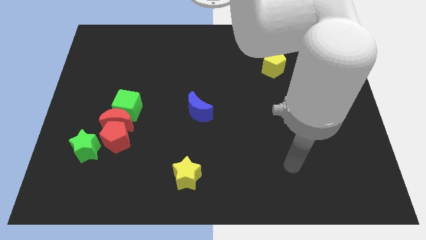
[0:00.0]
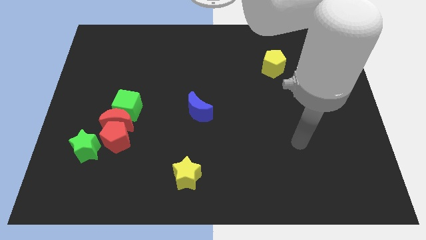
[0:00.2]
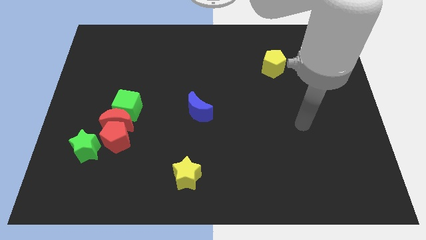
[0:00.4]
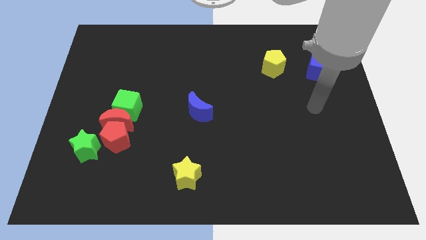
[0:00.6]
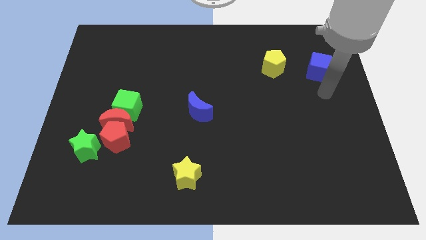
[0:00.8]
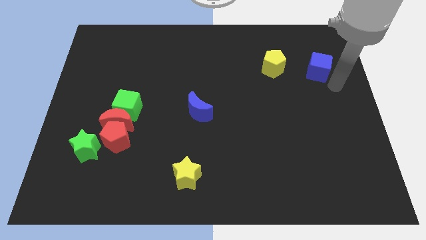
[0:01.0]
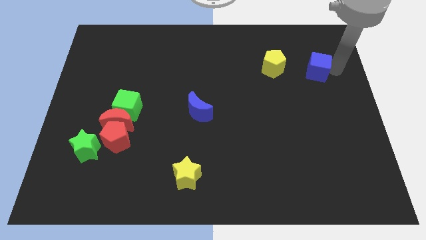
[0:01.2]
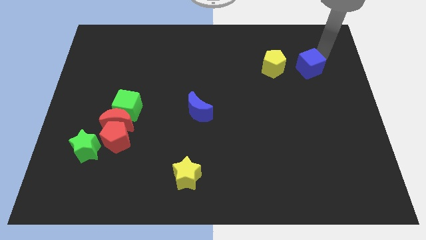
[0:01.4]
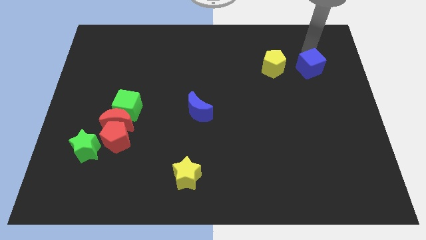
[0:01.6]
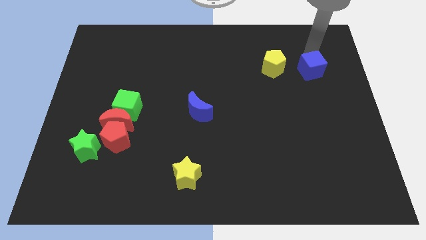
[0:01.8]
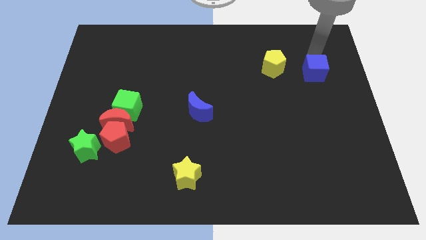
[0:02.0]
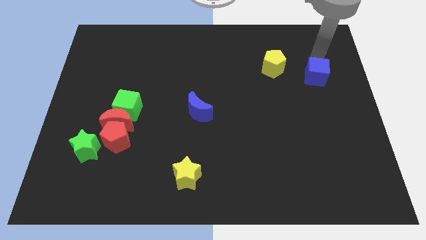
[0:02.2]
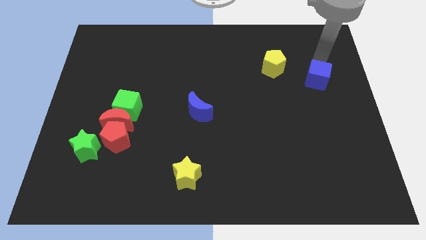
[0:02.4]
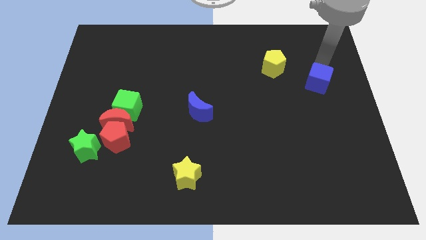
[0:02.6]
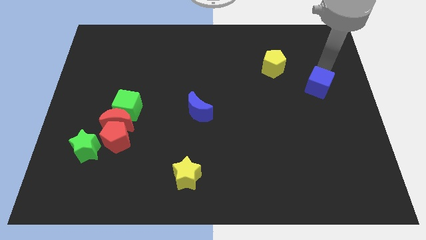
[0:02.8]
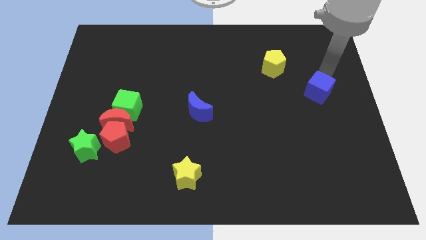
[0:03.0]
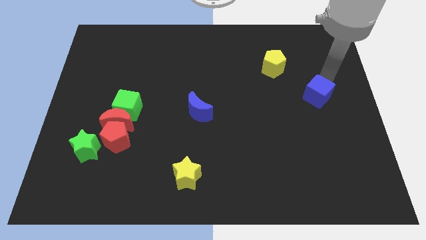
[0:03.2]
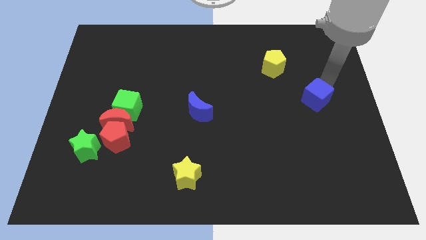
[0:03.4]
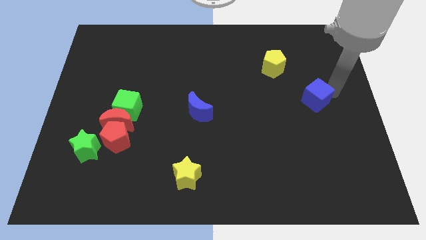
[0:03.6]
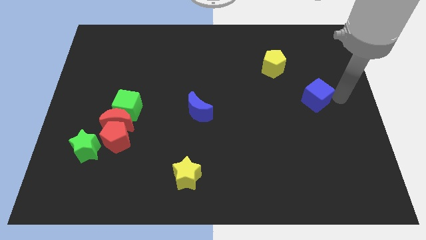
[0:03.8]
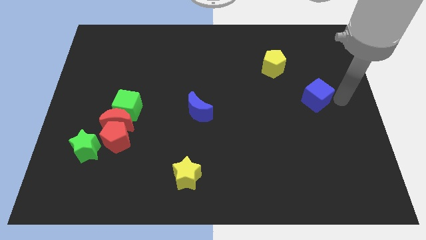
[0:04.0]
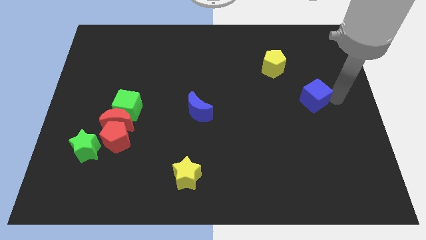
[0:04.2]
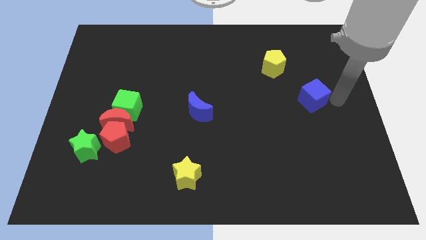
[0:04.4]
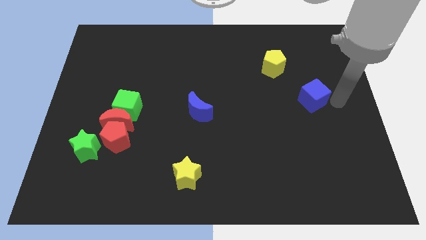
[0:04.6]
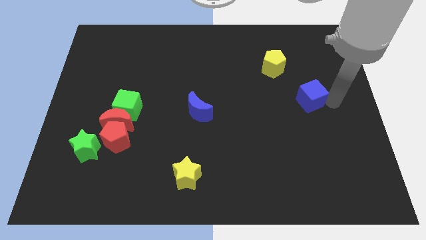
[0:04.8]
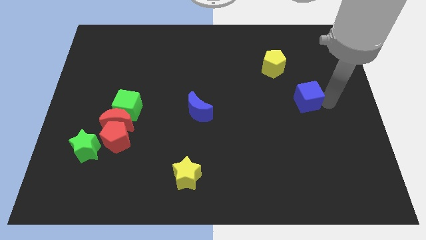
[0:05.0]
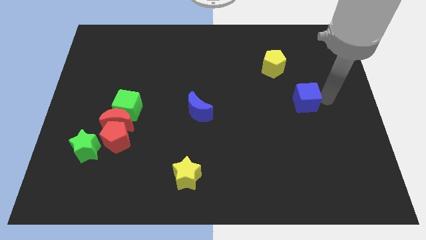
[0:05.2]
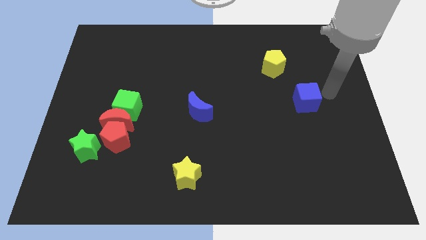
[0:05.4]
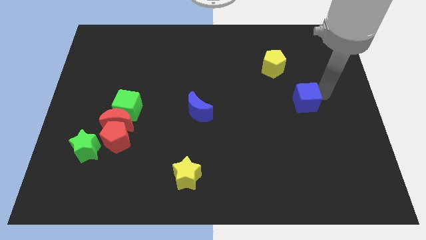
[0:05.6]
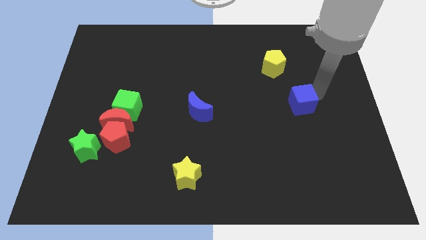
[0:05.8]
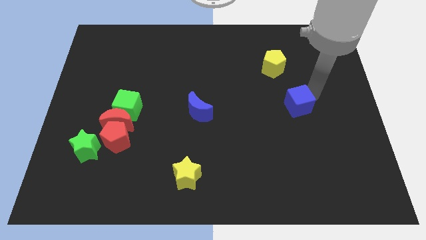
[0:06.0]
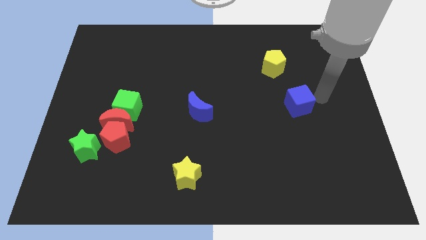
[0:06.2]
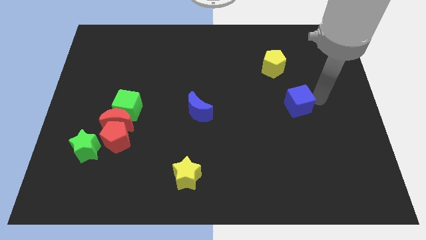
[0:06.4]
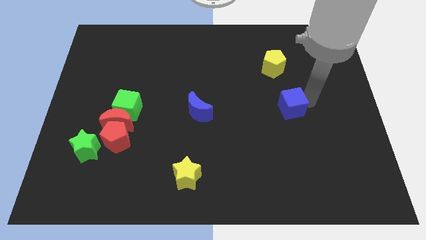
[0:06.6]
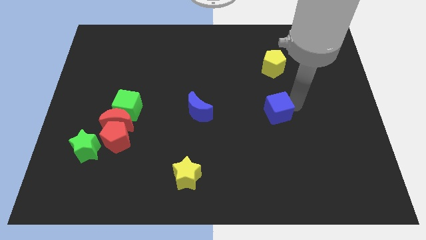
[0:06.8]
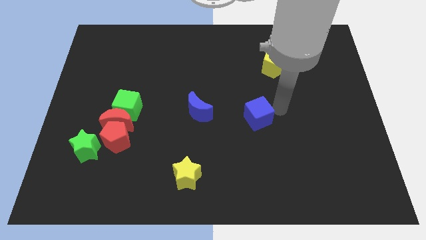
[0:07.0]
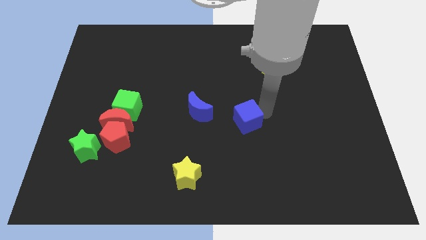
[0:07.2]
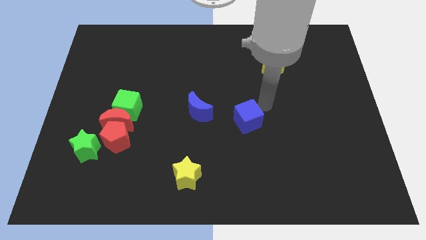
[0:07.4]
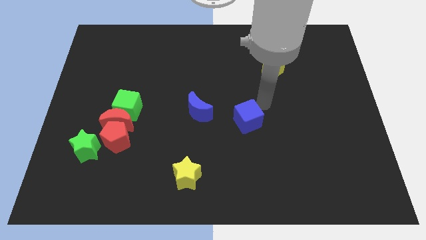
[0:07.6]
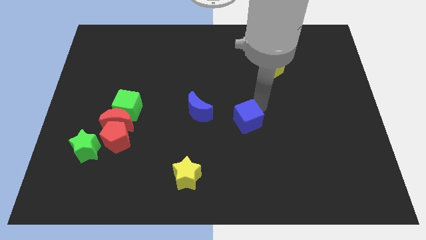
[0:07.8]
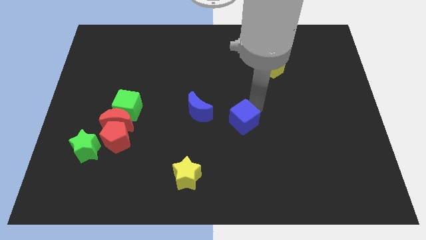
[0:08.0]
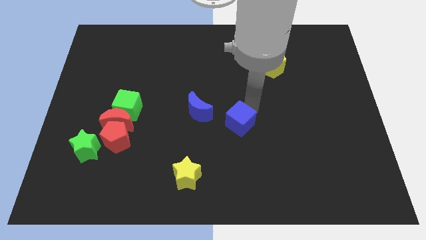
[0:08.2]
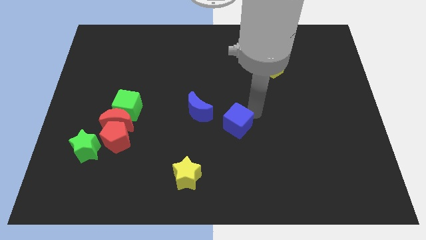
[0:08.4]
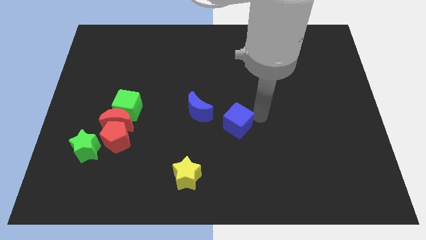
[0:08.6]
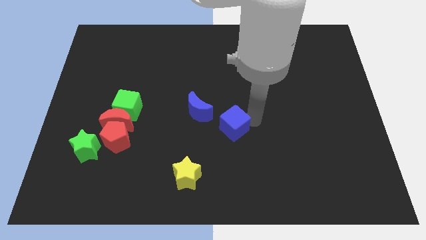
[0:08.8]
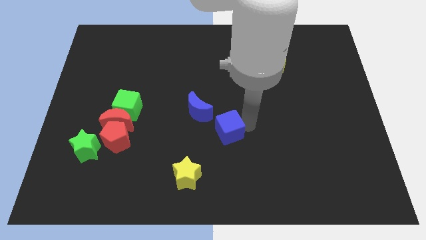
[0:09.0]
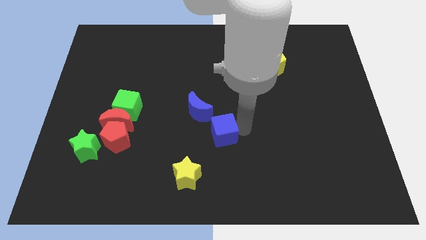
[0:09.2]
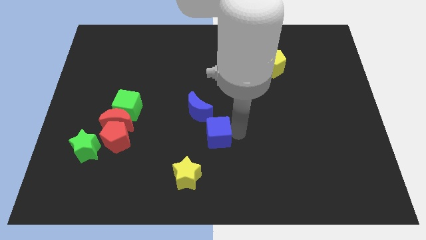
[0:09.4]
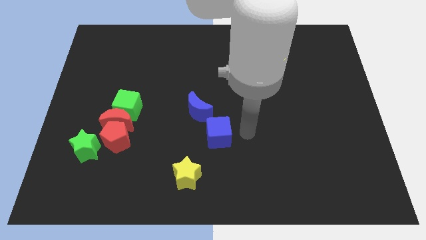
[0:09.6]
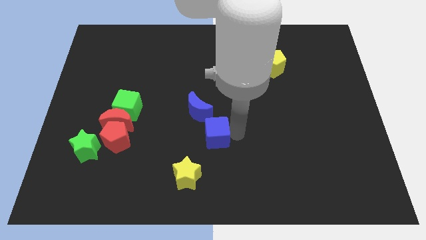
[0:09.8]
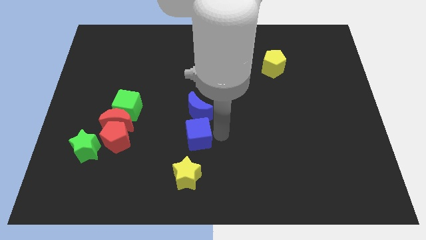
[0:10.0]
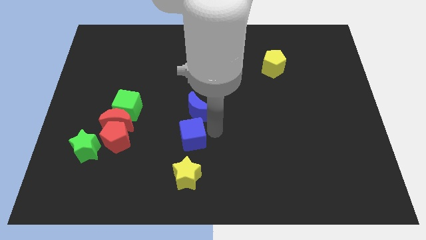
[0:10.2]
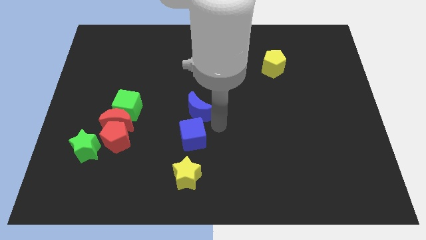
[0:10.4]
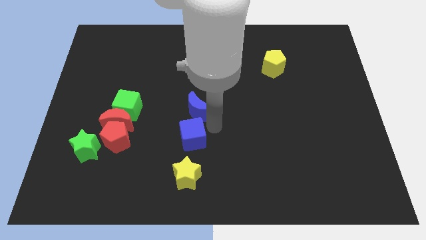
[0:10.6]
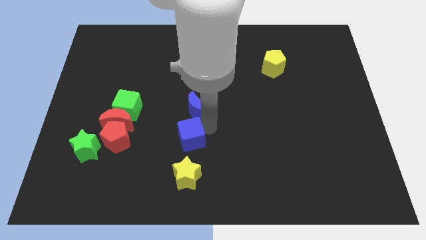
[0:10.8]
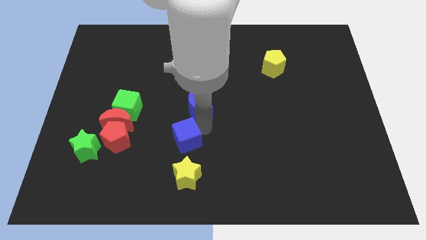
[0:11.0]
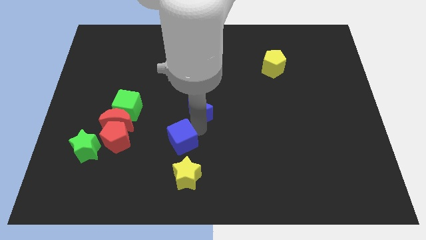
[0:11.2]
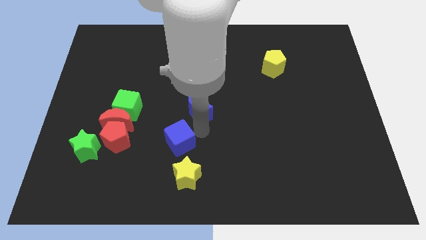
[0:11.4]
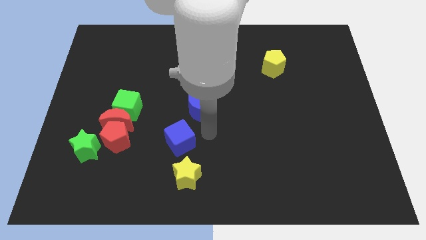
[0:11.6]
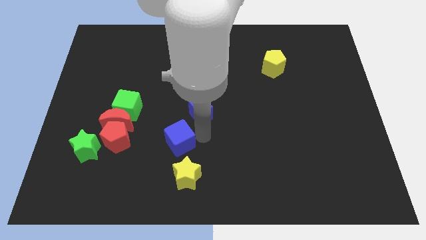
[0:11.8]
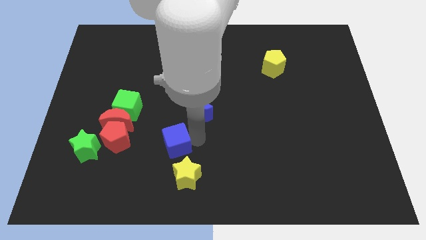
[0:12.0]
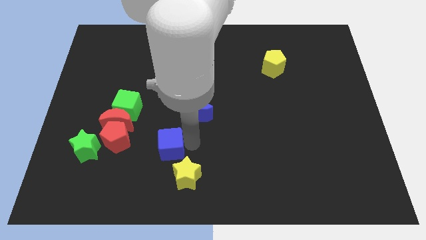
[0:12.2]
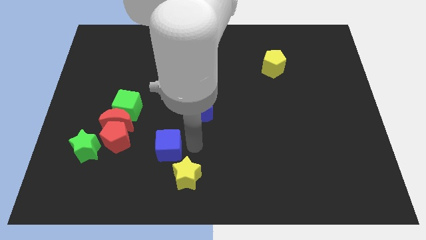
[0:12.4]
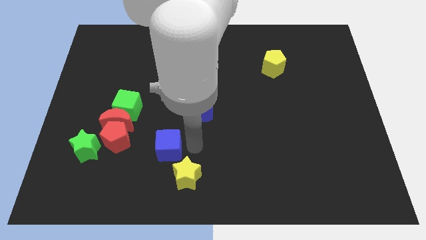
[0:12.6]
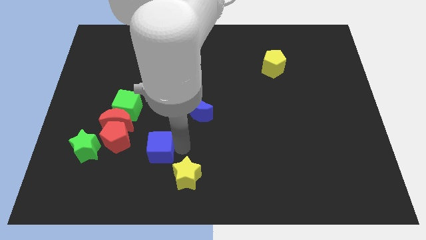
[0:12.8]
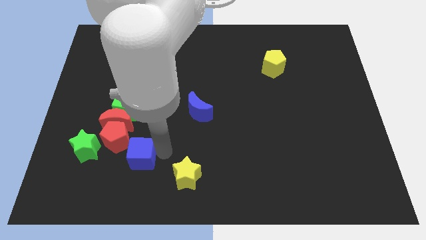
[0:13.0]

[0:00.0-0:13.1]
put the blue cube to the bottom side of the green cube
